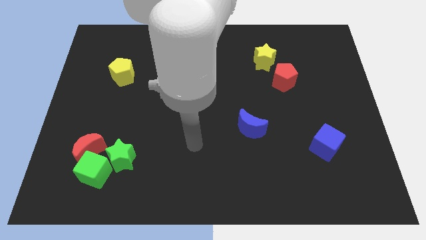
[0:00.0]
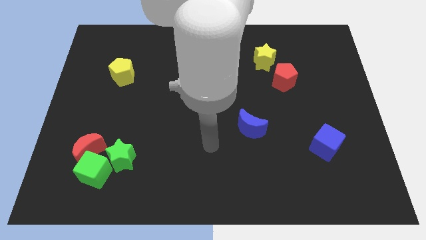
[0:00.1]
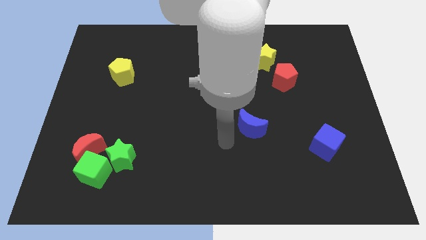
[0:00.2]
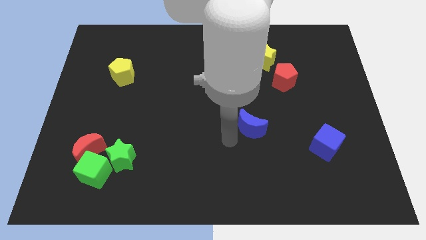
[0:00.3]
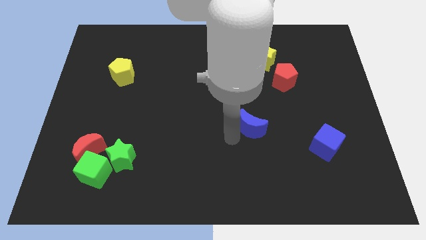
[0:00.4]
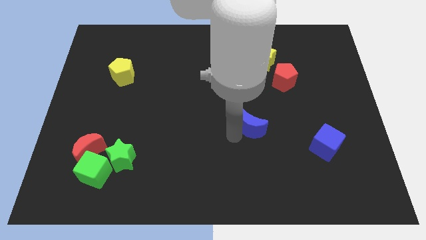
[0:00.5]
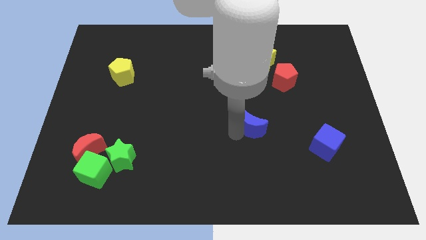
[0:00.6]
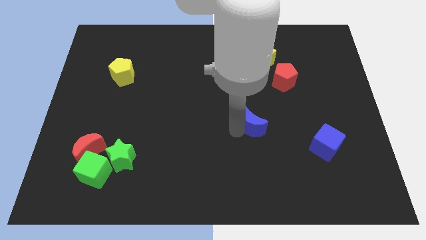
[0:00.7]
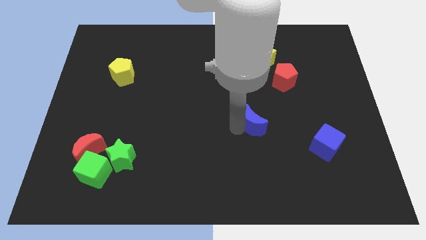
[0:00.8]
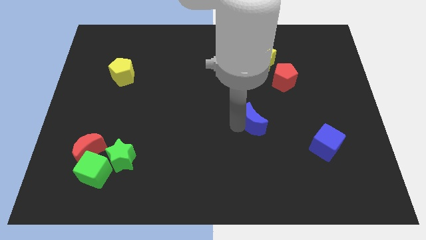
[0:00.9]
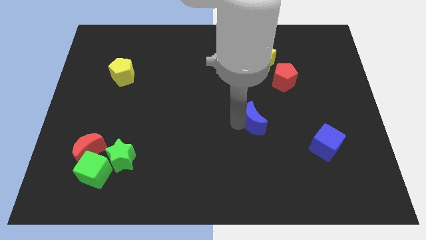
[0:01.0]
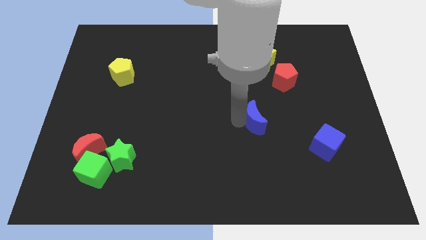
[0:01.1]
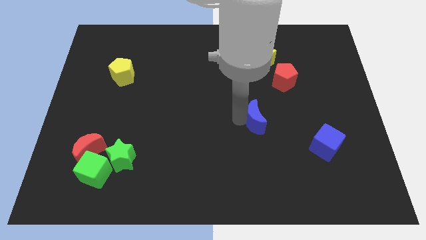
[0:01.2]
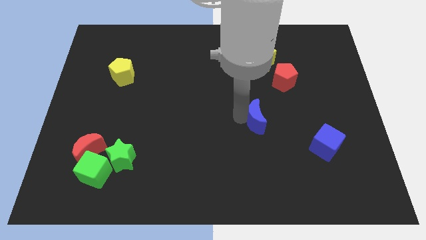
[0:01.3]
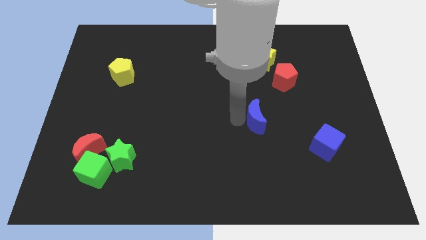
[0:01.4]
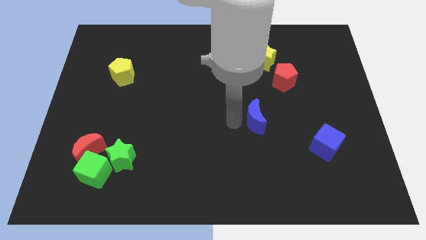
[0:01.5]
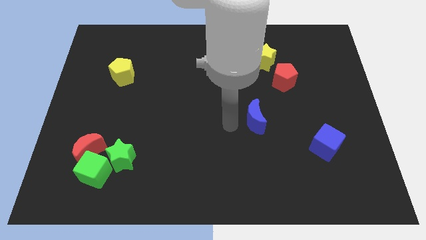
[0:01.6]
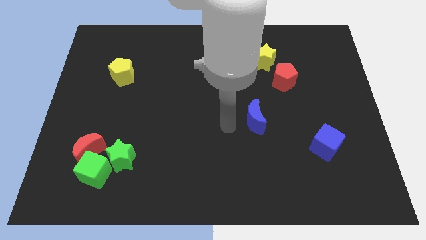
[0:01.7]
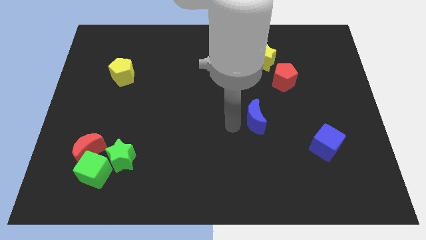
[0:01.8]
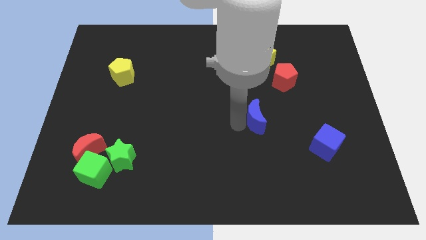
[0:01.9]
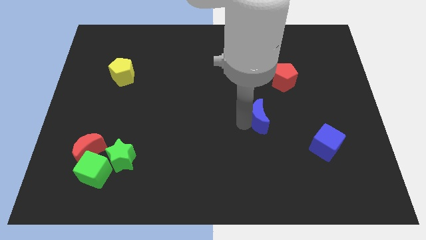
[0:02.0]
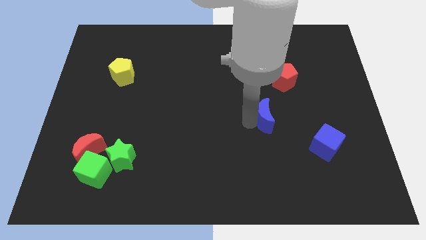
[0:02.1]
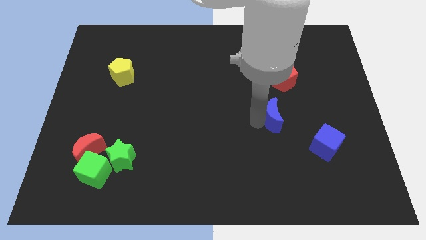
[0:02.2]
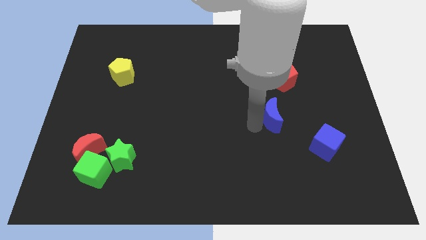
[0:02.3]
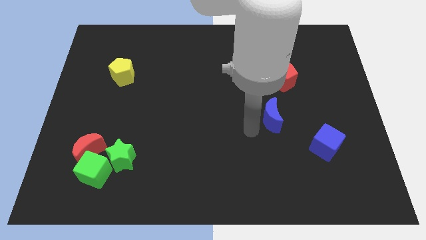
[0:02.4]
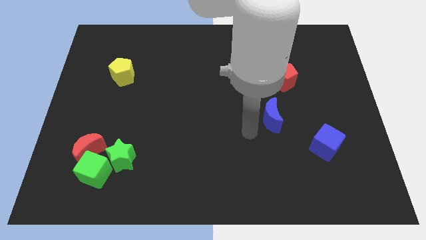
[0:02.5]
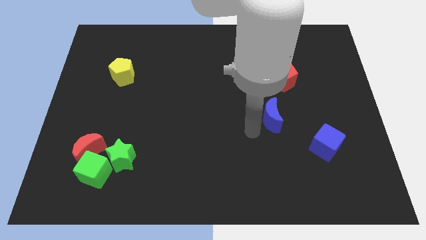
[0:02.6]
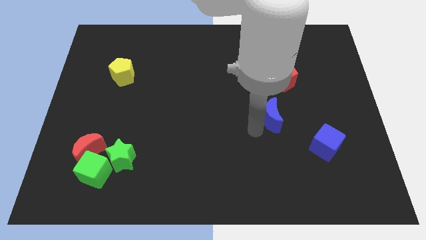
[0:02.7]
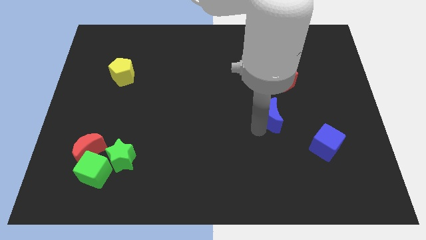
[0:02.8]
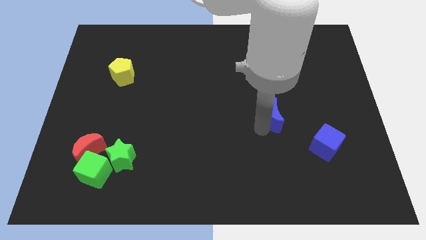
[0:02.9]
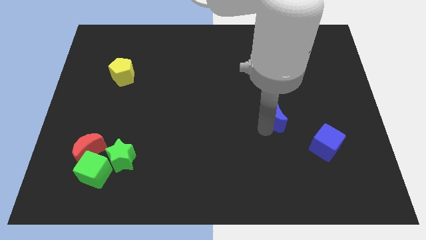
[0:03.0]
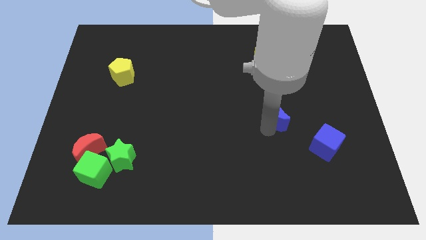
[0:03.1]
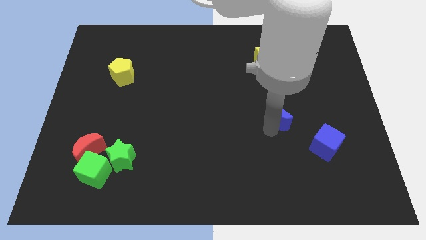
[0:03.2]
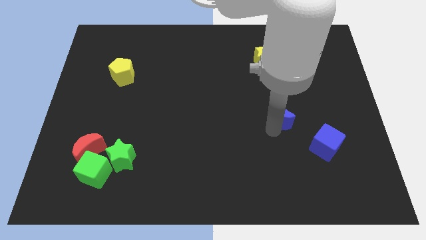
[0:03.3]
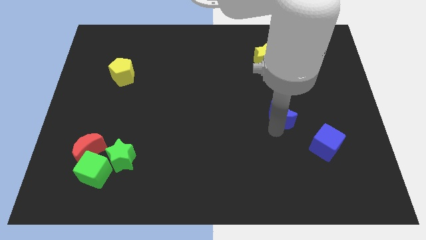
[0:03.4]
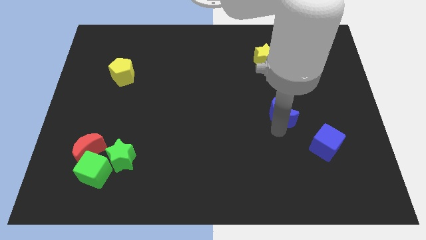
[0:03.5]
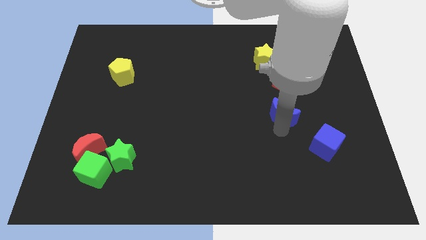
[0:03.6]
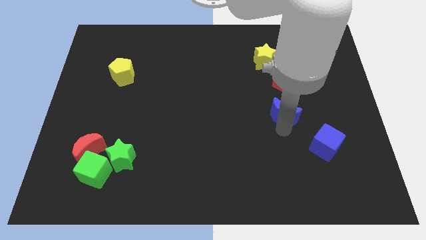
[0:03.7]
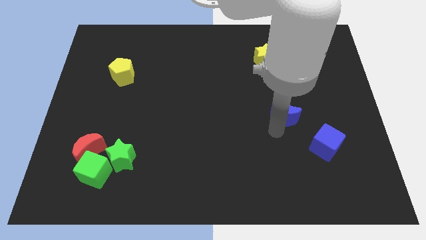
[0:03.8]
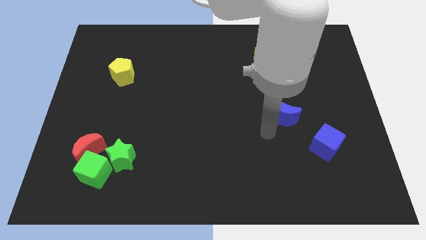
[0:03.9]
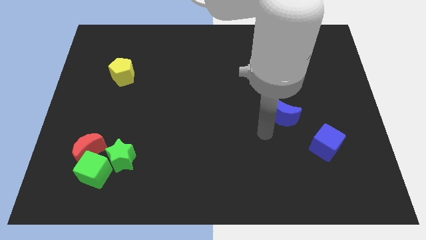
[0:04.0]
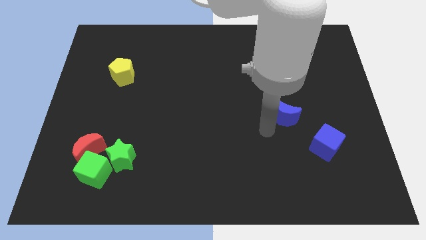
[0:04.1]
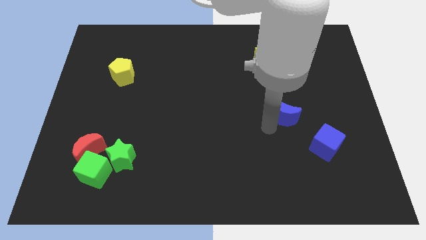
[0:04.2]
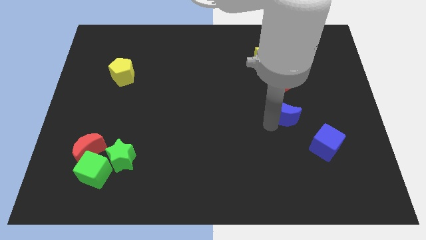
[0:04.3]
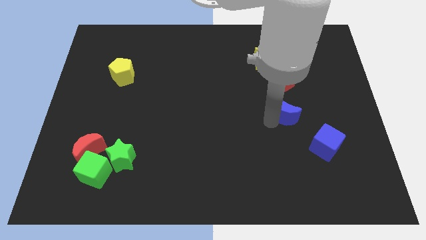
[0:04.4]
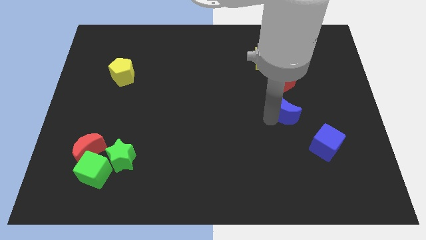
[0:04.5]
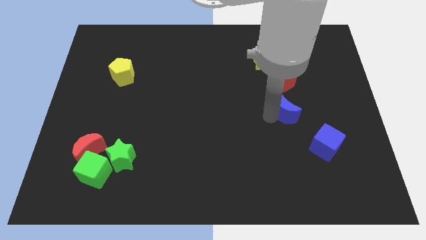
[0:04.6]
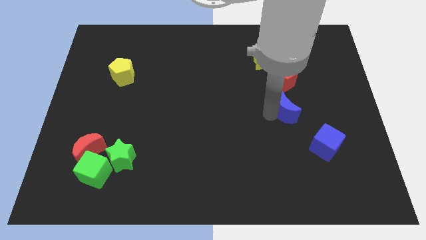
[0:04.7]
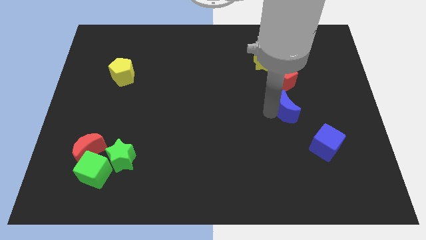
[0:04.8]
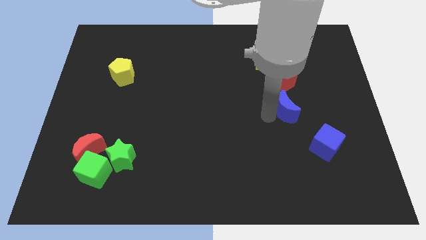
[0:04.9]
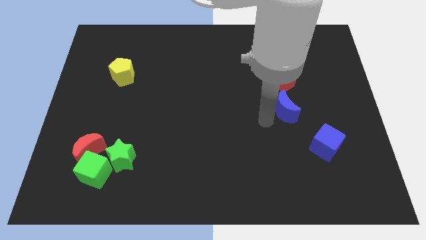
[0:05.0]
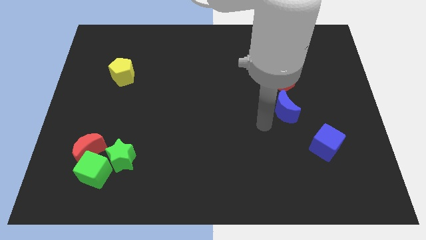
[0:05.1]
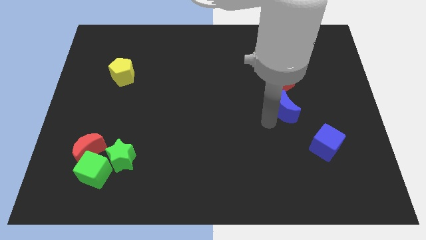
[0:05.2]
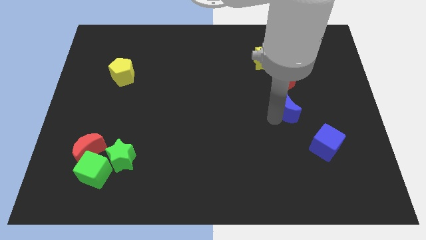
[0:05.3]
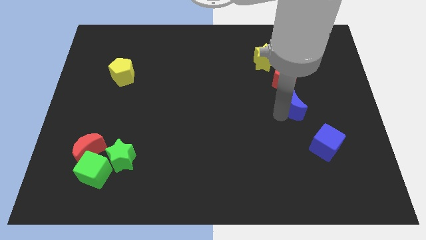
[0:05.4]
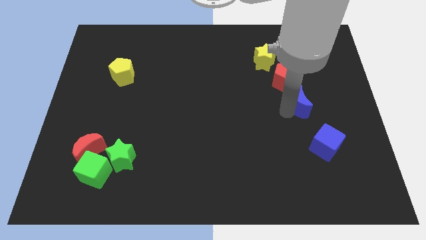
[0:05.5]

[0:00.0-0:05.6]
push the blue moon diagonally down and to the right of the red pentagon

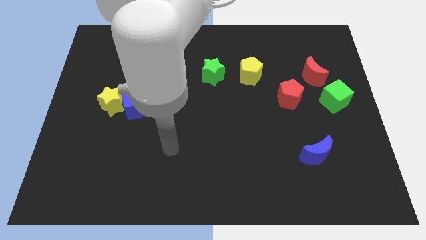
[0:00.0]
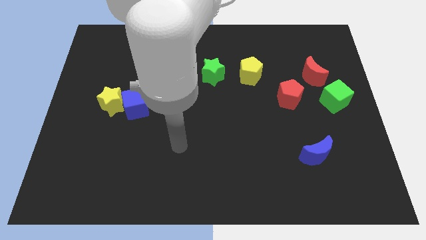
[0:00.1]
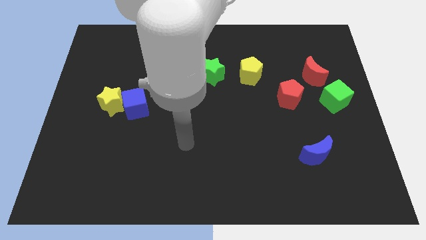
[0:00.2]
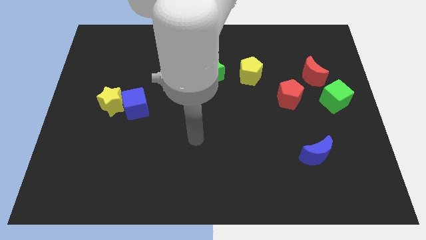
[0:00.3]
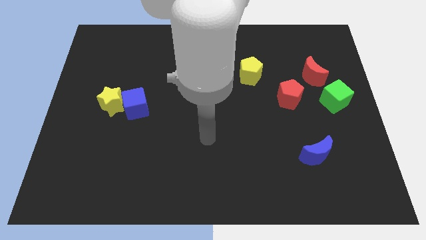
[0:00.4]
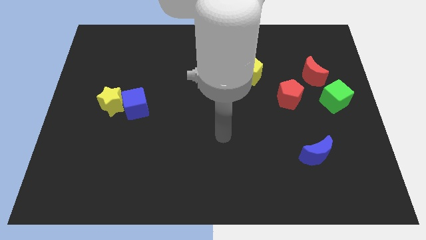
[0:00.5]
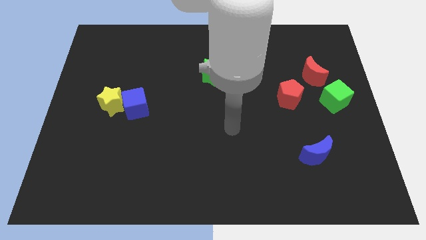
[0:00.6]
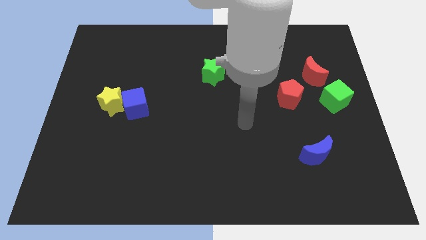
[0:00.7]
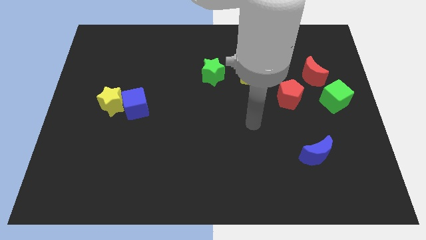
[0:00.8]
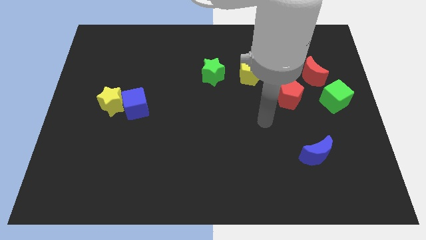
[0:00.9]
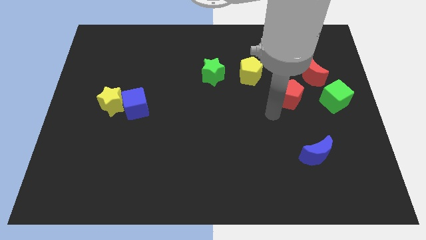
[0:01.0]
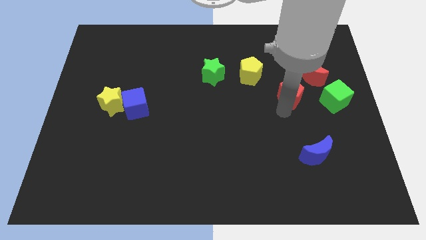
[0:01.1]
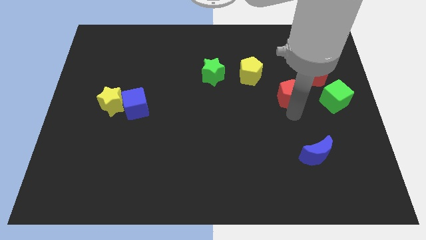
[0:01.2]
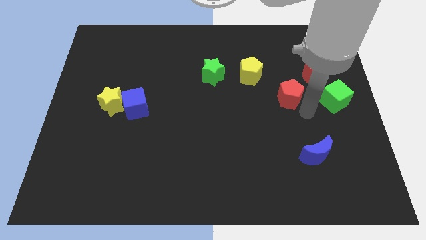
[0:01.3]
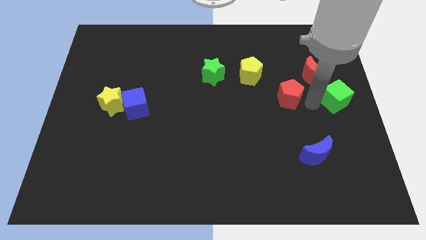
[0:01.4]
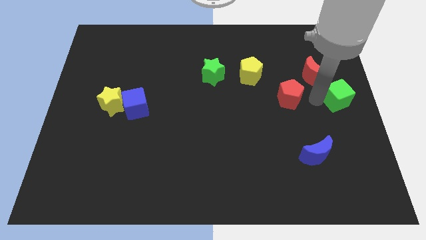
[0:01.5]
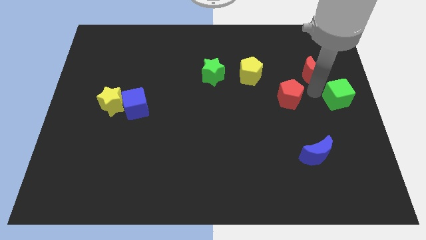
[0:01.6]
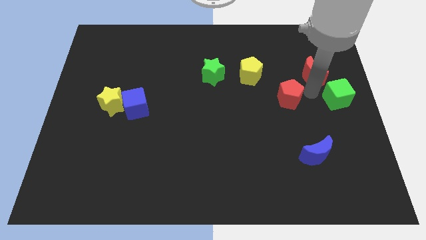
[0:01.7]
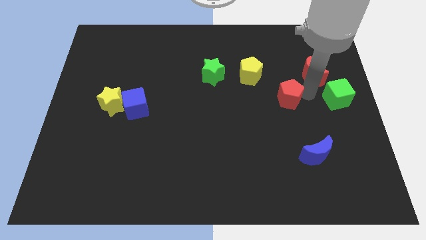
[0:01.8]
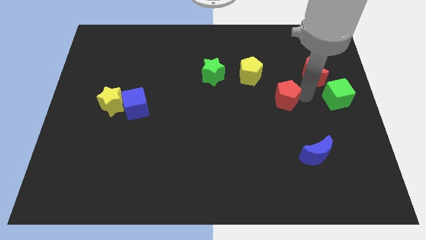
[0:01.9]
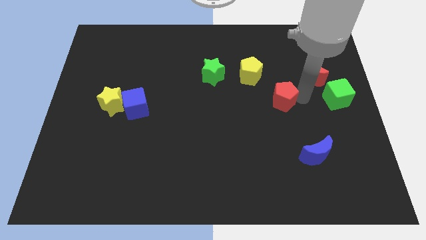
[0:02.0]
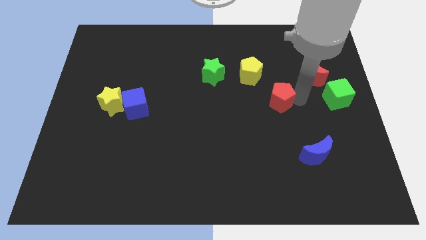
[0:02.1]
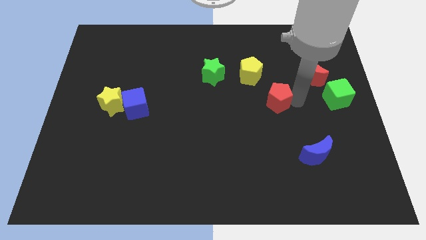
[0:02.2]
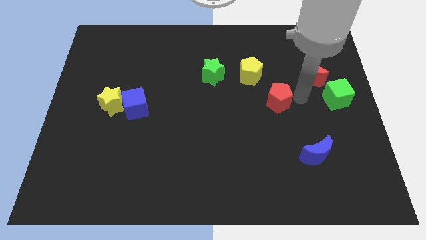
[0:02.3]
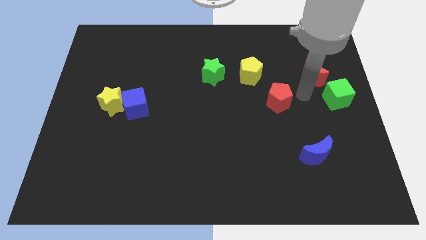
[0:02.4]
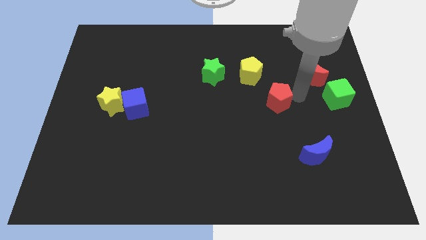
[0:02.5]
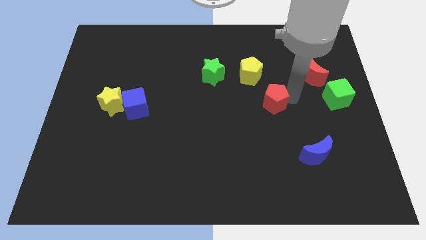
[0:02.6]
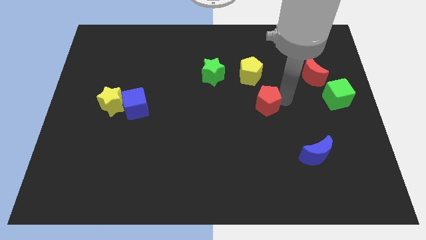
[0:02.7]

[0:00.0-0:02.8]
put the red pentagon to the bottom side of the yellow pentagon
